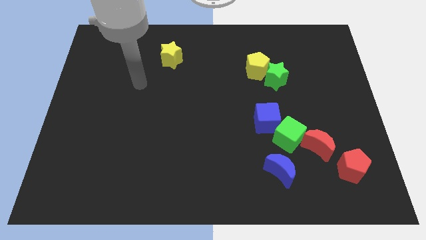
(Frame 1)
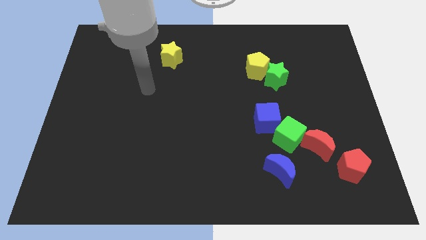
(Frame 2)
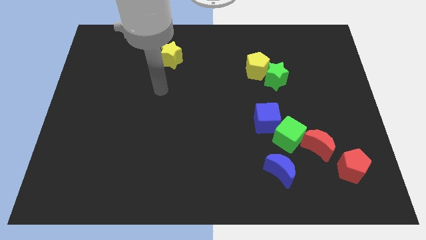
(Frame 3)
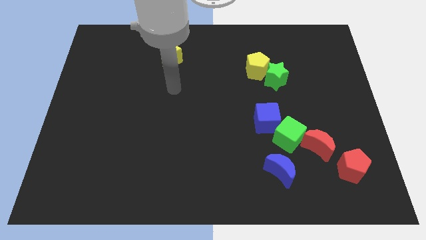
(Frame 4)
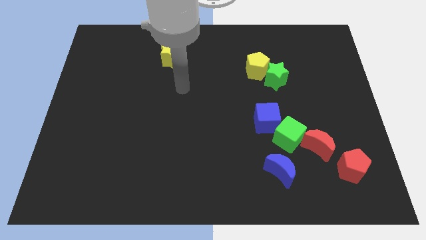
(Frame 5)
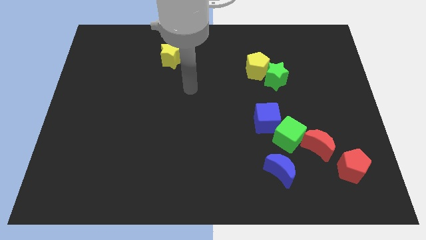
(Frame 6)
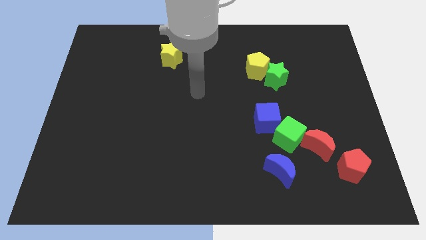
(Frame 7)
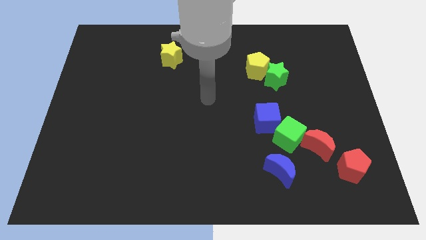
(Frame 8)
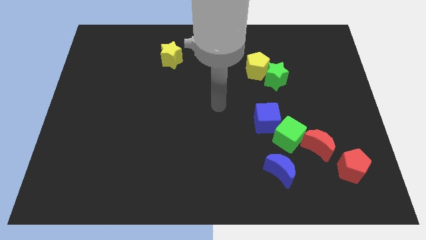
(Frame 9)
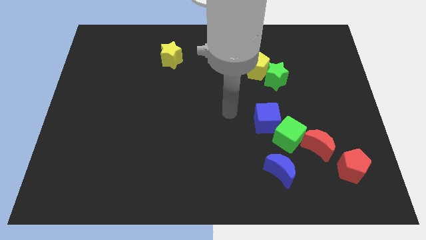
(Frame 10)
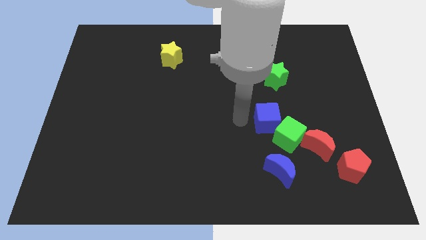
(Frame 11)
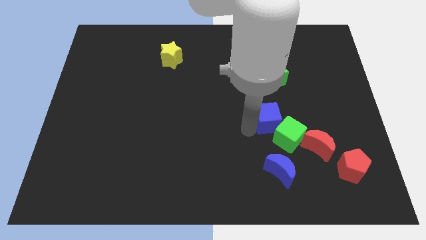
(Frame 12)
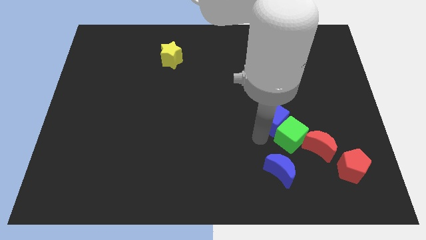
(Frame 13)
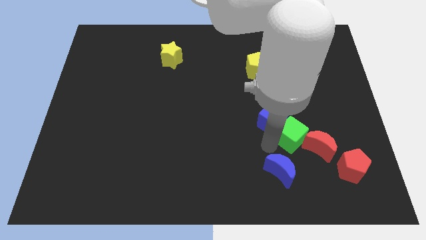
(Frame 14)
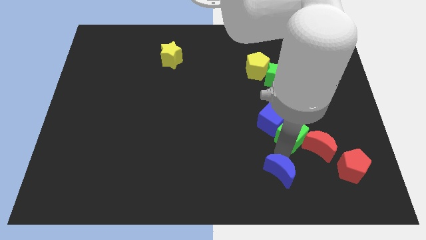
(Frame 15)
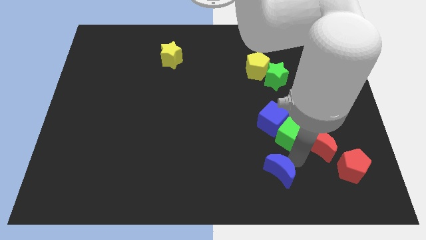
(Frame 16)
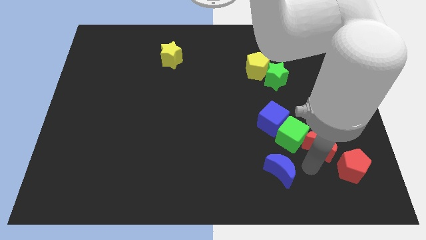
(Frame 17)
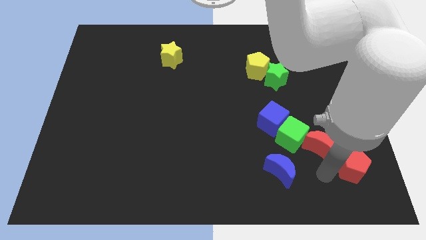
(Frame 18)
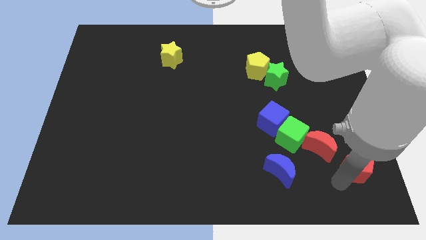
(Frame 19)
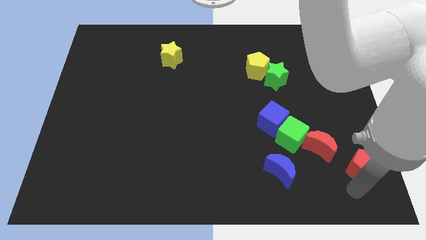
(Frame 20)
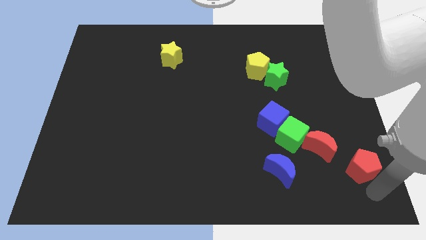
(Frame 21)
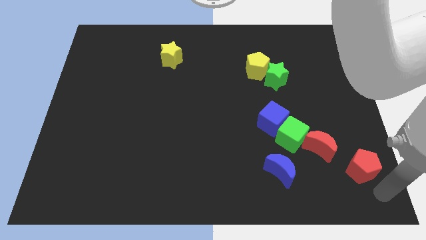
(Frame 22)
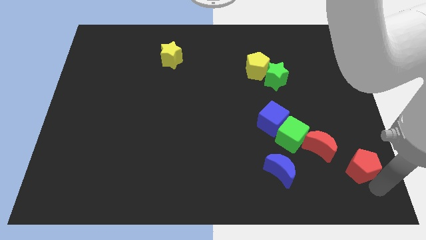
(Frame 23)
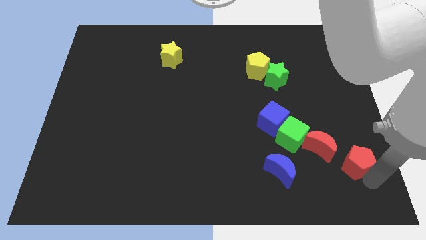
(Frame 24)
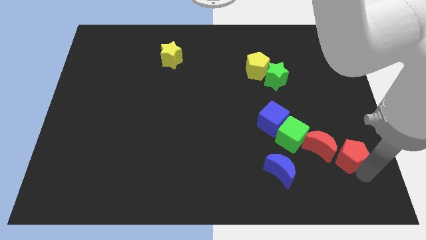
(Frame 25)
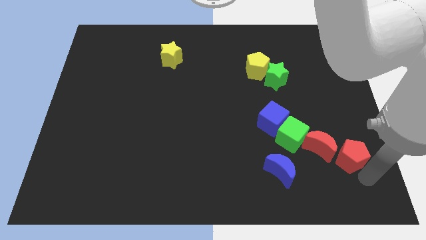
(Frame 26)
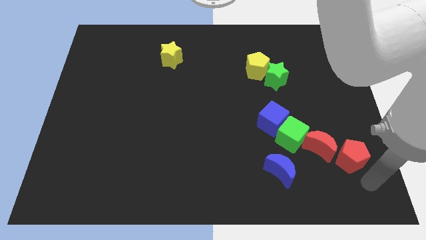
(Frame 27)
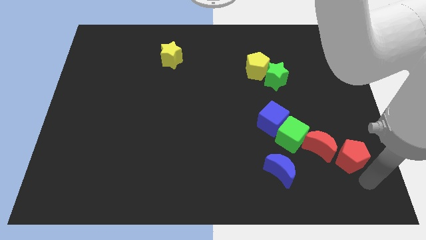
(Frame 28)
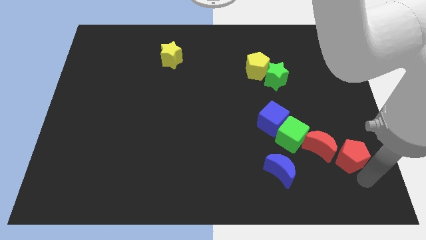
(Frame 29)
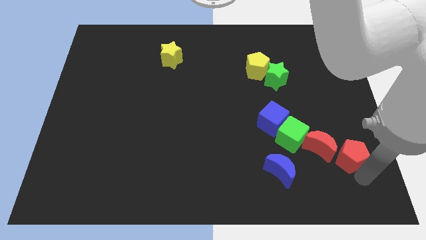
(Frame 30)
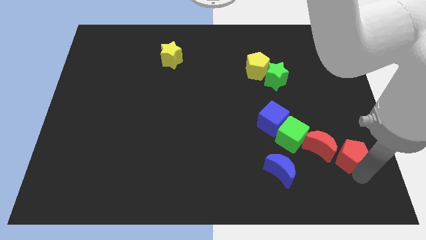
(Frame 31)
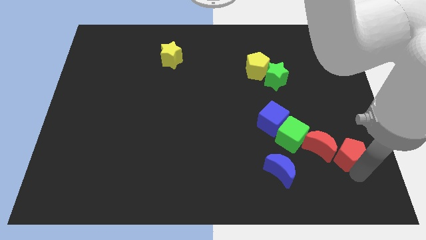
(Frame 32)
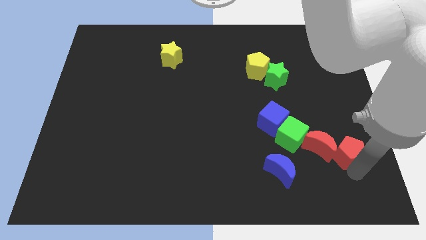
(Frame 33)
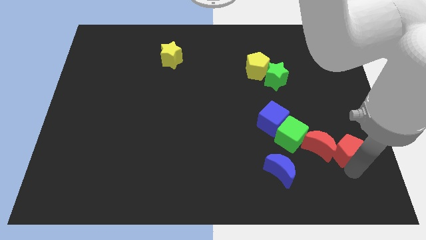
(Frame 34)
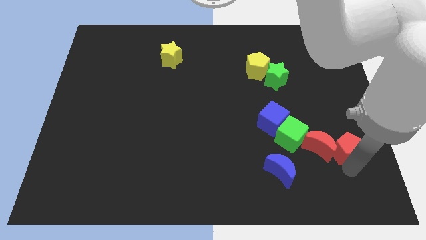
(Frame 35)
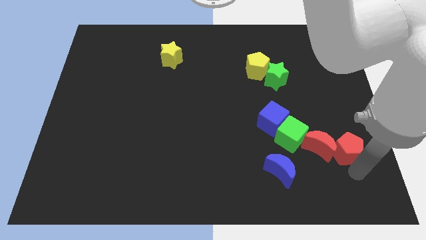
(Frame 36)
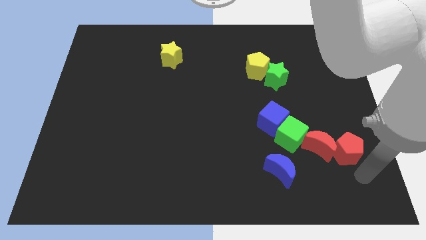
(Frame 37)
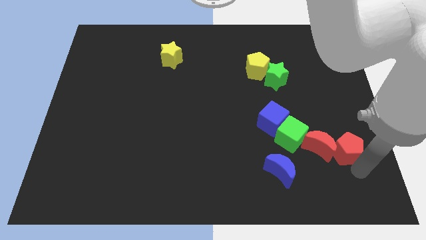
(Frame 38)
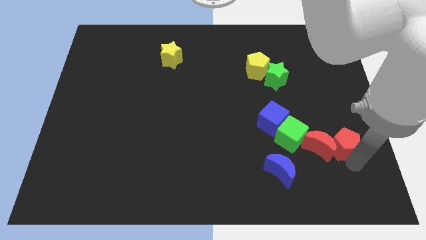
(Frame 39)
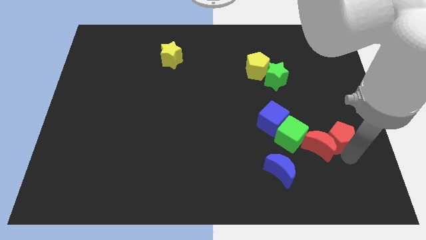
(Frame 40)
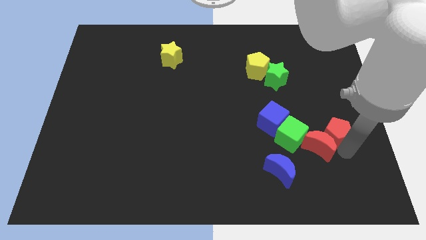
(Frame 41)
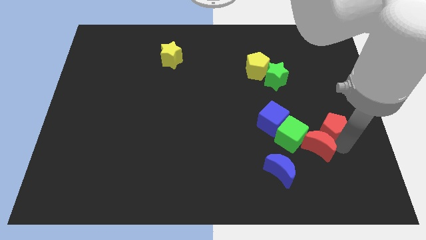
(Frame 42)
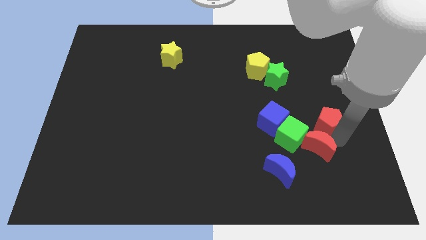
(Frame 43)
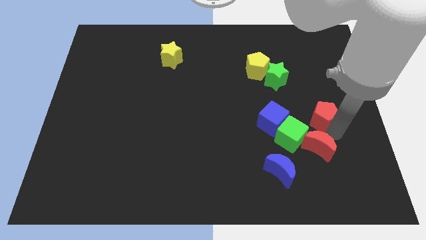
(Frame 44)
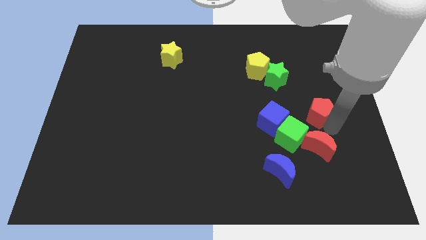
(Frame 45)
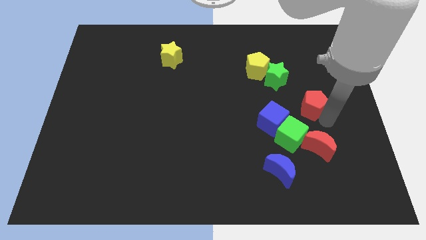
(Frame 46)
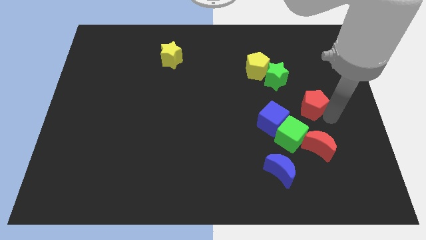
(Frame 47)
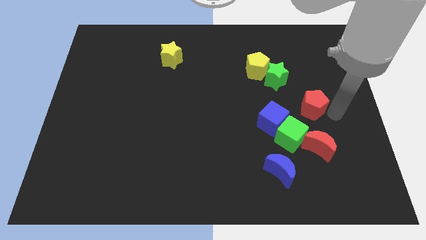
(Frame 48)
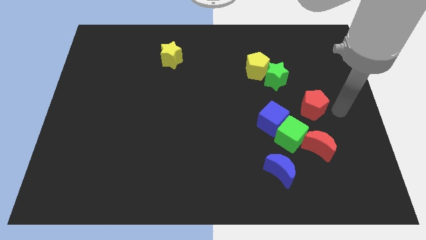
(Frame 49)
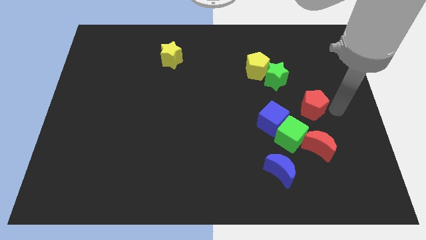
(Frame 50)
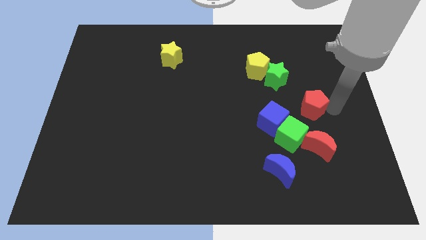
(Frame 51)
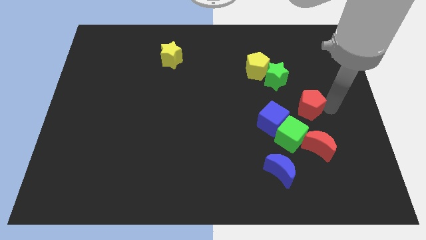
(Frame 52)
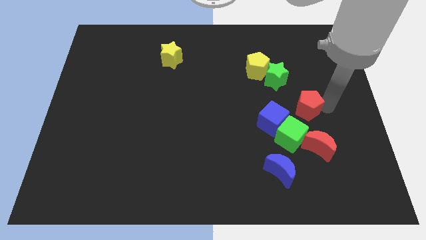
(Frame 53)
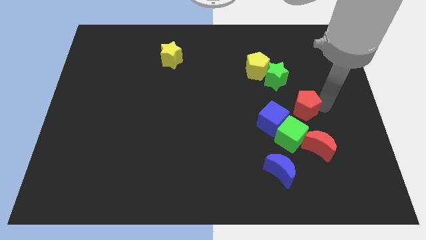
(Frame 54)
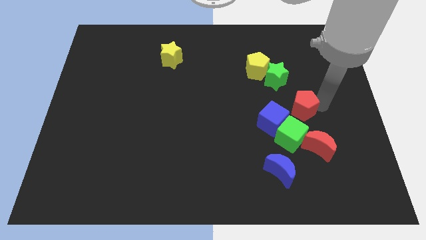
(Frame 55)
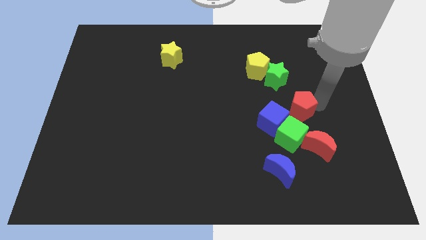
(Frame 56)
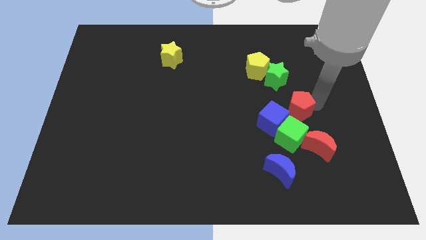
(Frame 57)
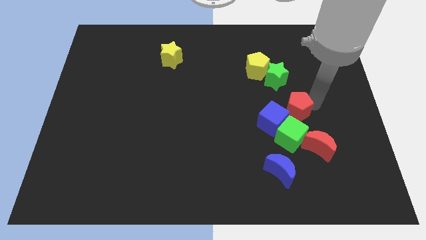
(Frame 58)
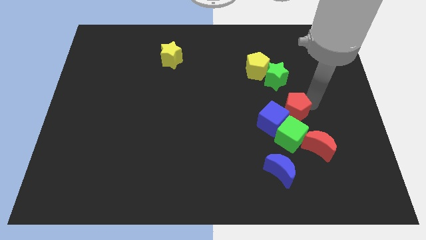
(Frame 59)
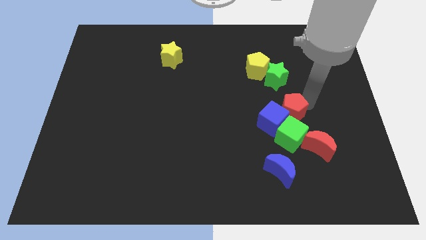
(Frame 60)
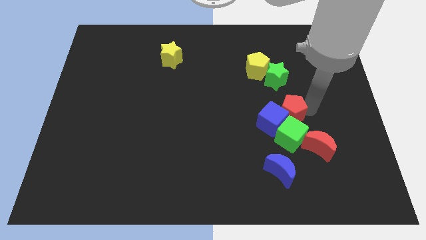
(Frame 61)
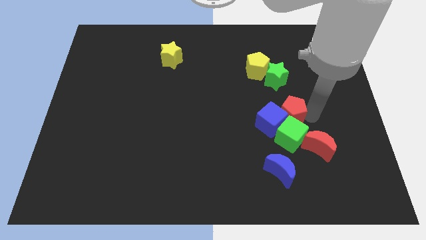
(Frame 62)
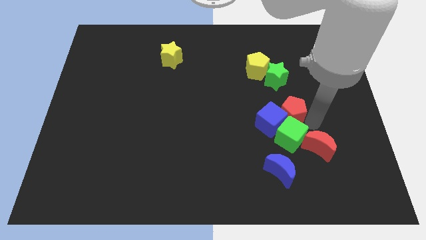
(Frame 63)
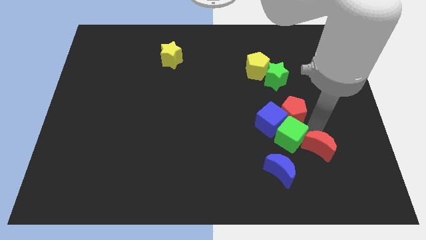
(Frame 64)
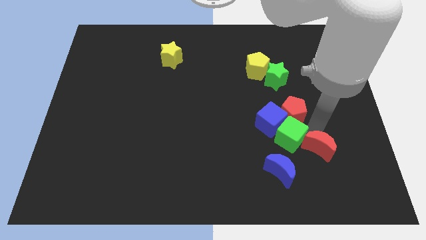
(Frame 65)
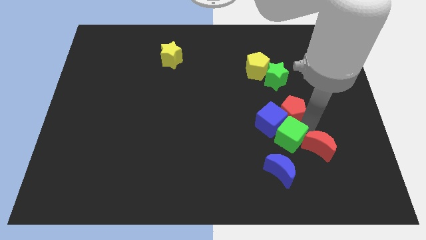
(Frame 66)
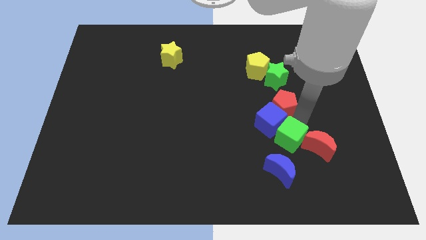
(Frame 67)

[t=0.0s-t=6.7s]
slide the red pentagon diagonally up and left

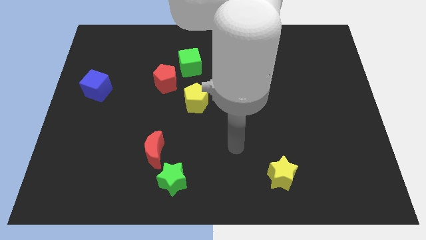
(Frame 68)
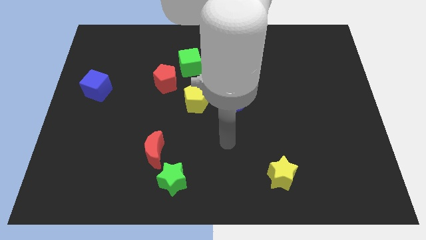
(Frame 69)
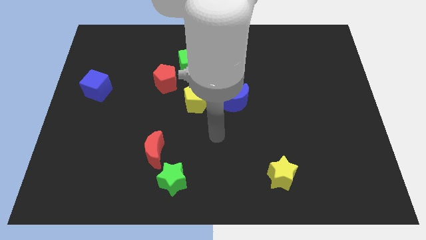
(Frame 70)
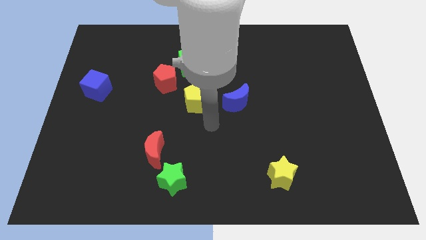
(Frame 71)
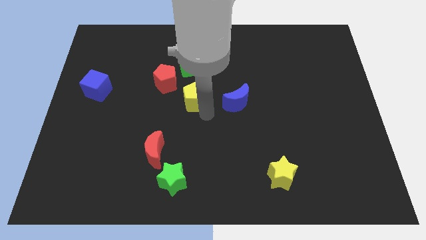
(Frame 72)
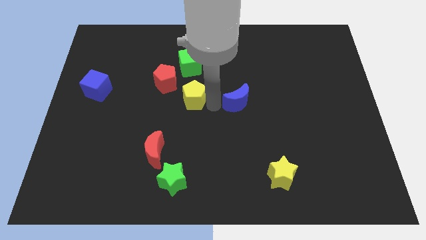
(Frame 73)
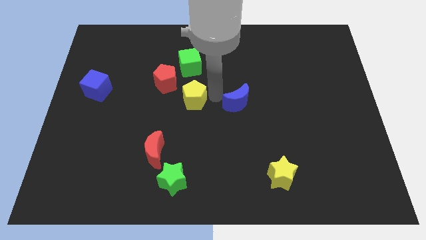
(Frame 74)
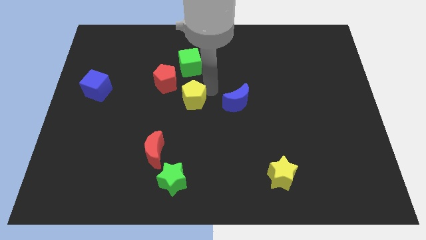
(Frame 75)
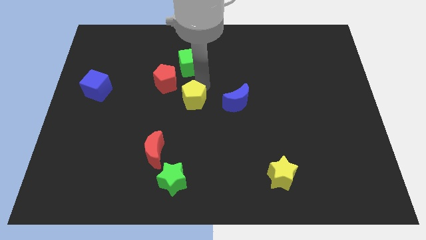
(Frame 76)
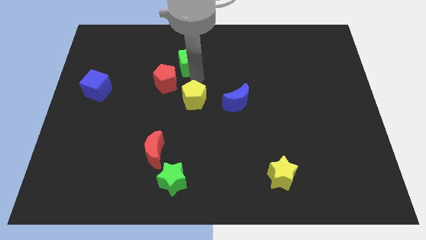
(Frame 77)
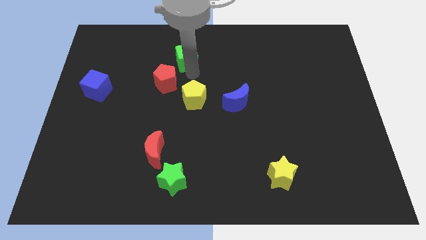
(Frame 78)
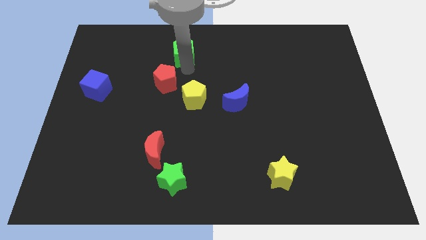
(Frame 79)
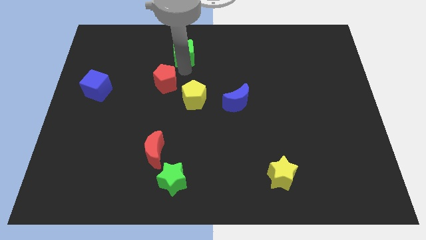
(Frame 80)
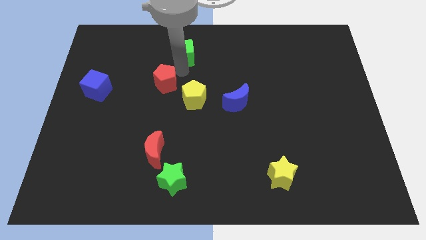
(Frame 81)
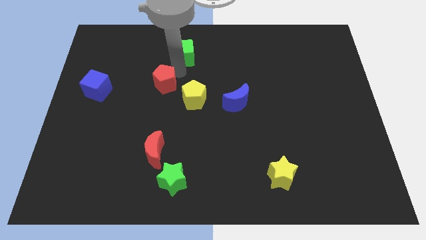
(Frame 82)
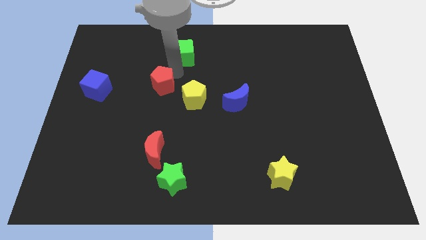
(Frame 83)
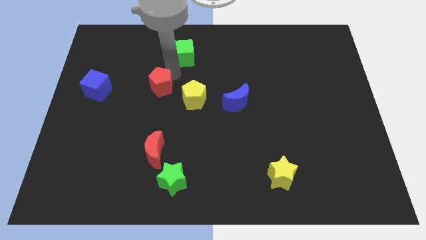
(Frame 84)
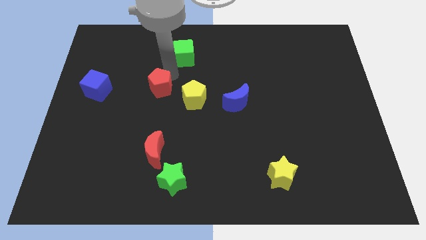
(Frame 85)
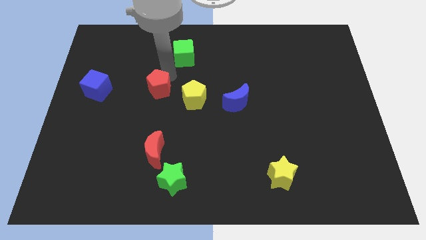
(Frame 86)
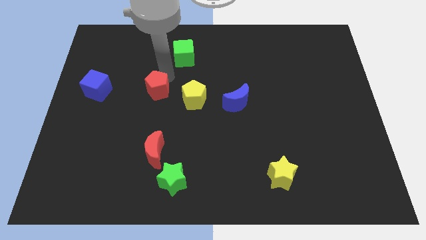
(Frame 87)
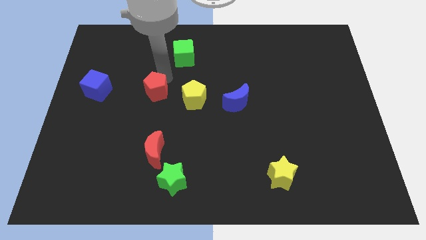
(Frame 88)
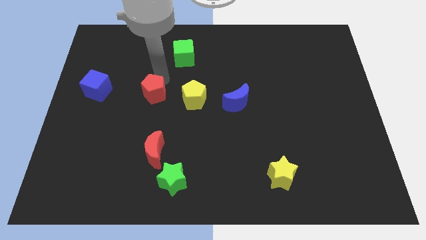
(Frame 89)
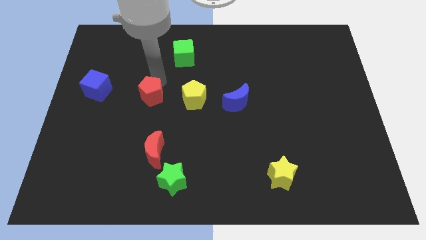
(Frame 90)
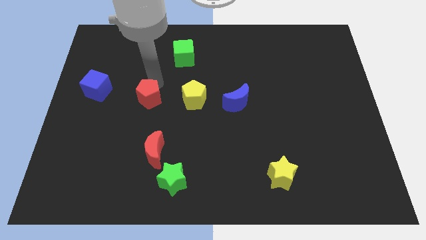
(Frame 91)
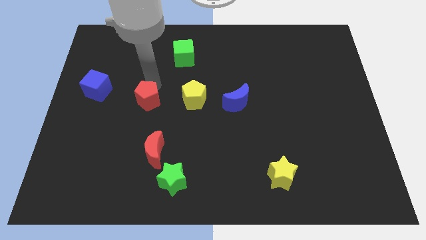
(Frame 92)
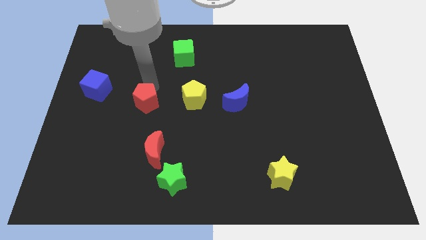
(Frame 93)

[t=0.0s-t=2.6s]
slightly move the red pentagon down and to the left
